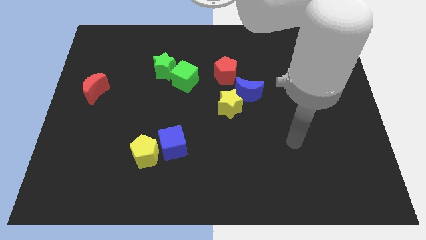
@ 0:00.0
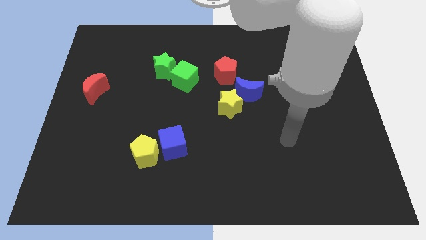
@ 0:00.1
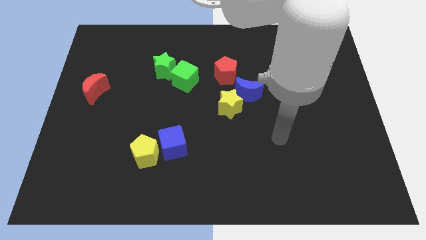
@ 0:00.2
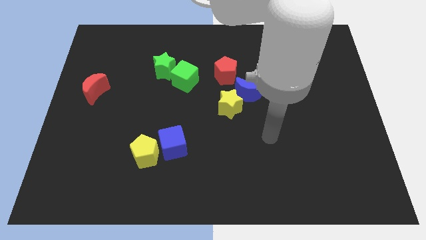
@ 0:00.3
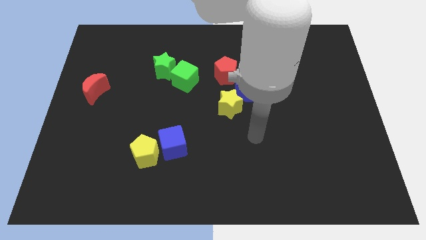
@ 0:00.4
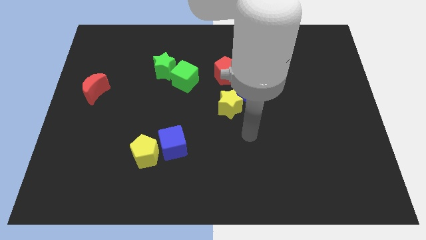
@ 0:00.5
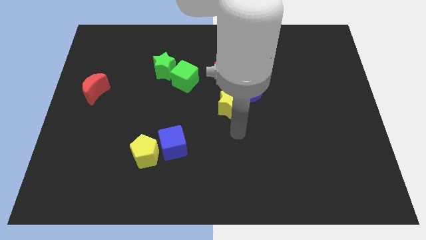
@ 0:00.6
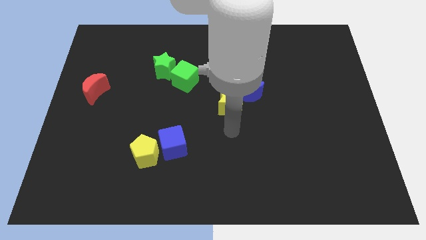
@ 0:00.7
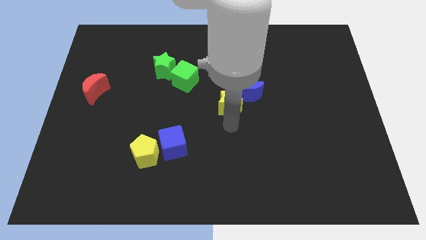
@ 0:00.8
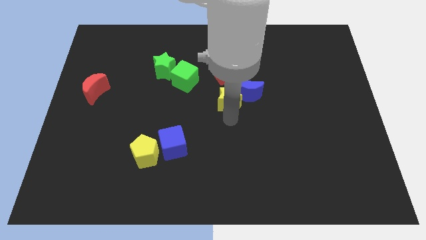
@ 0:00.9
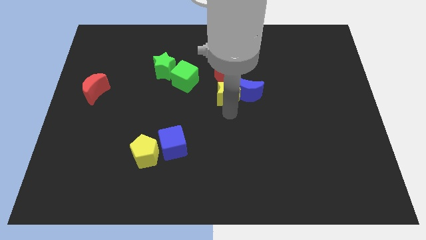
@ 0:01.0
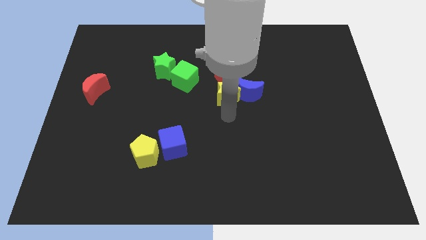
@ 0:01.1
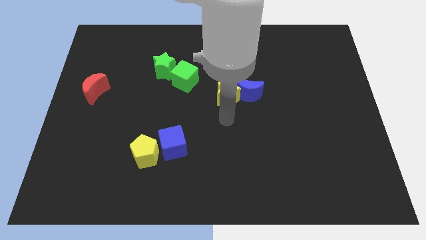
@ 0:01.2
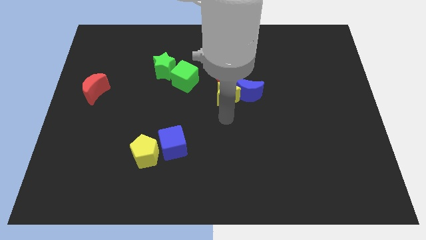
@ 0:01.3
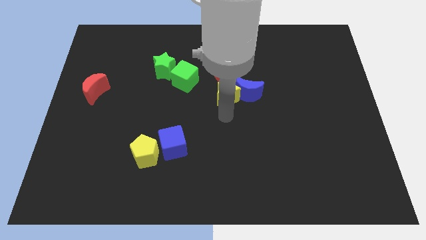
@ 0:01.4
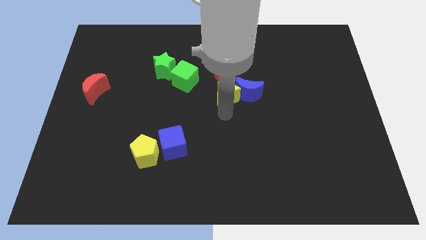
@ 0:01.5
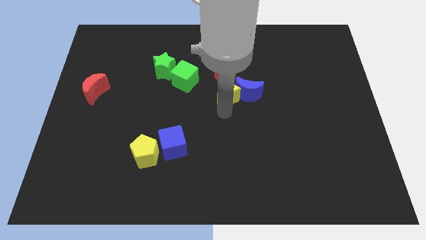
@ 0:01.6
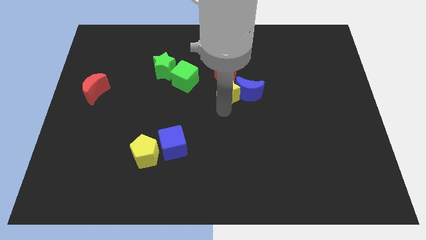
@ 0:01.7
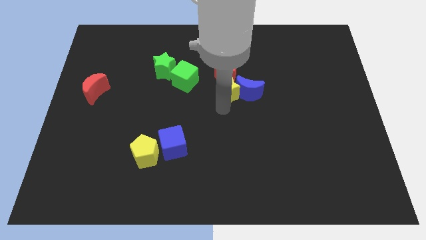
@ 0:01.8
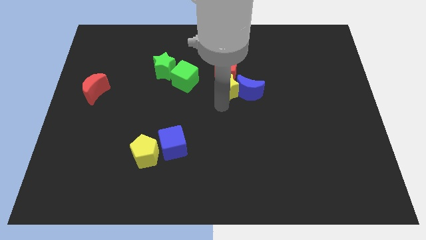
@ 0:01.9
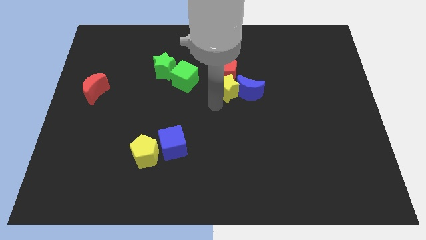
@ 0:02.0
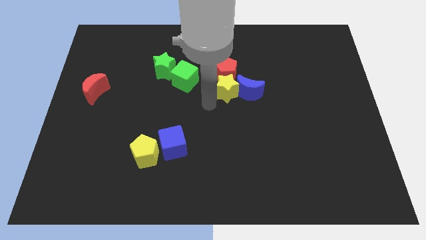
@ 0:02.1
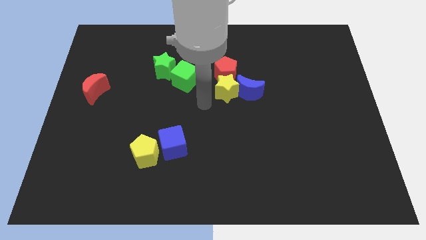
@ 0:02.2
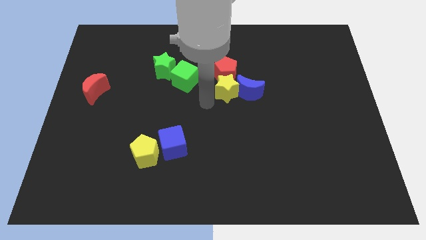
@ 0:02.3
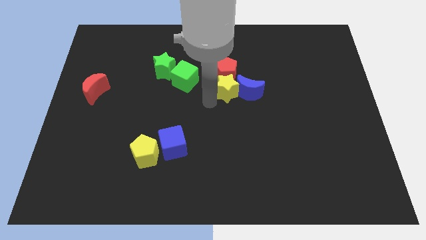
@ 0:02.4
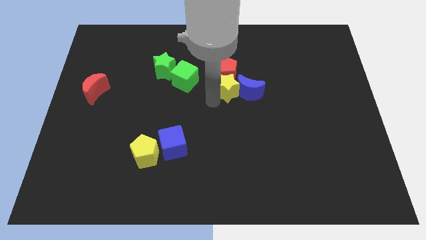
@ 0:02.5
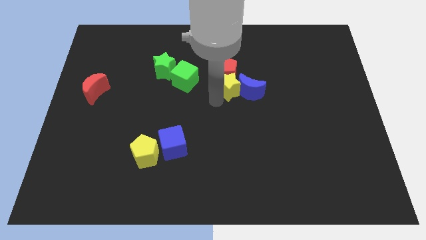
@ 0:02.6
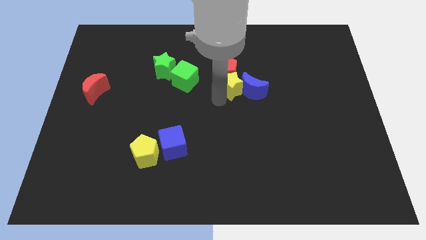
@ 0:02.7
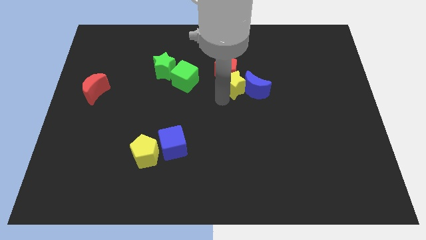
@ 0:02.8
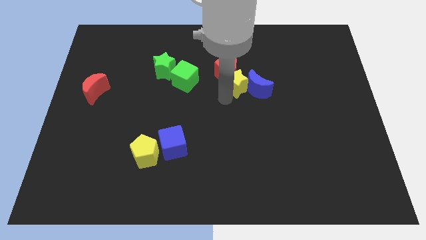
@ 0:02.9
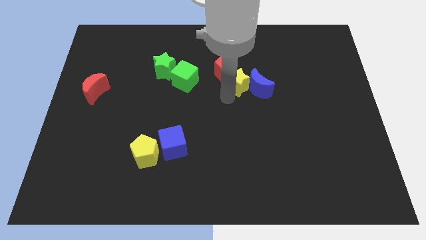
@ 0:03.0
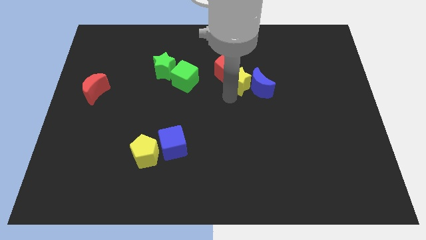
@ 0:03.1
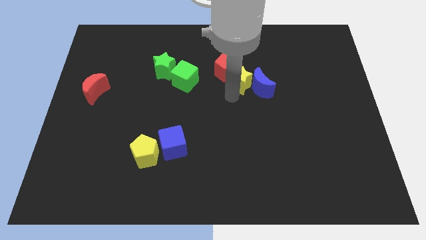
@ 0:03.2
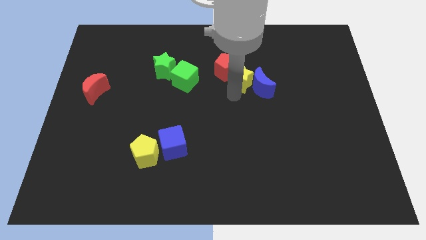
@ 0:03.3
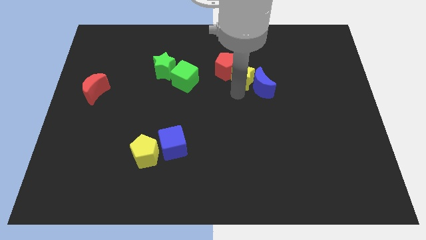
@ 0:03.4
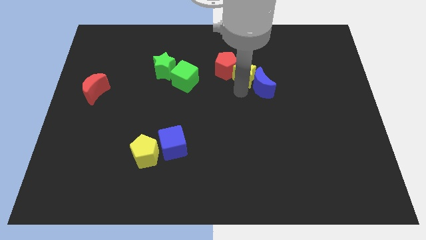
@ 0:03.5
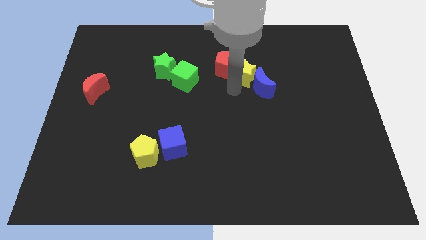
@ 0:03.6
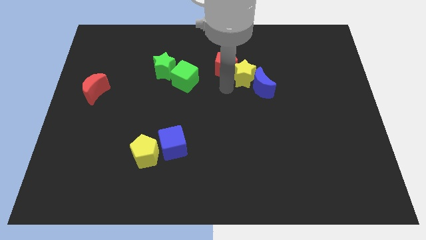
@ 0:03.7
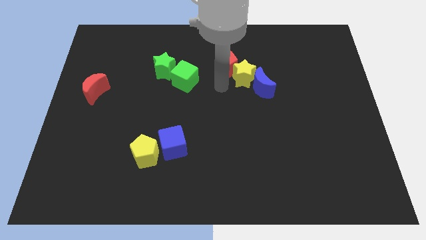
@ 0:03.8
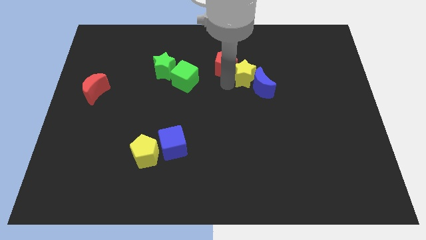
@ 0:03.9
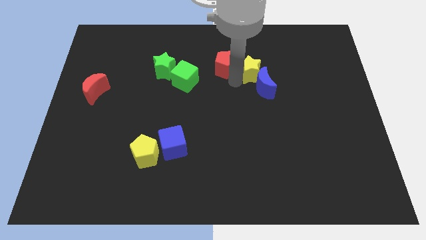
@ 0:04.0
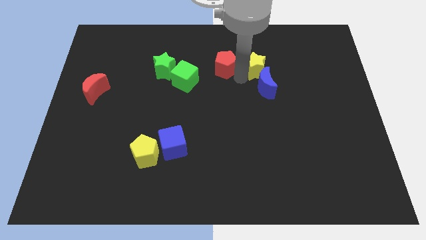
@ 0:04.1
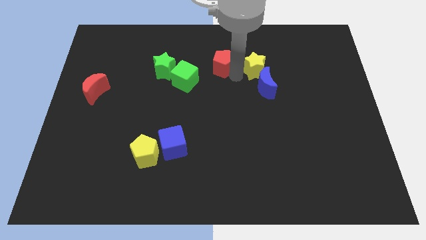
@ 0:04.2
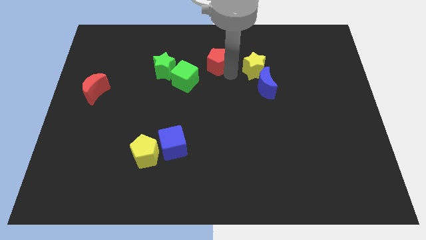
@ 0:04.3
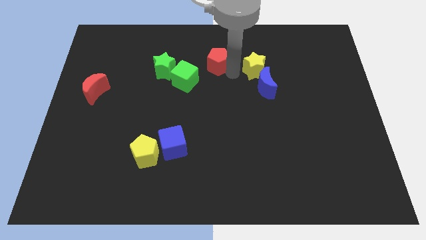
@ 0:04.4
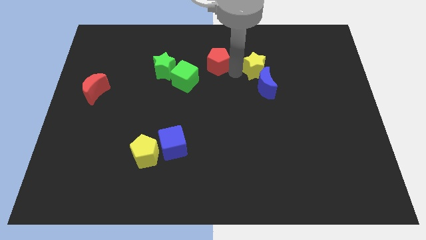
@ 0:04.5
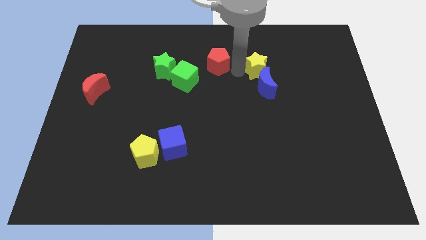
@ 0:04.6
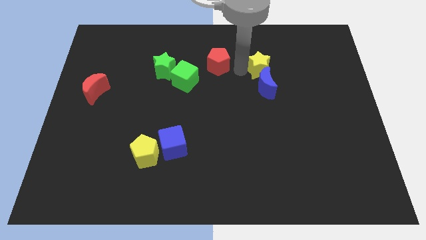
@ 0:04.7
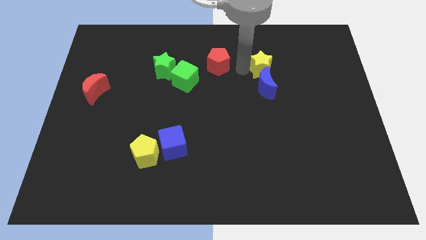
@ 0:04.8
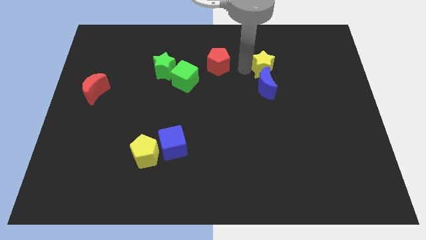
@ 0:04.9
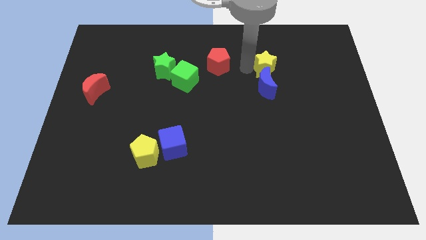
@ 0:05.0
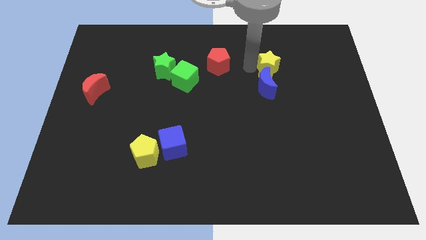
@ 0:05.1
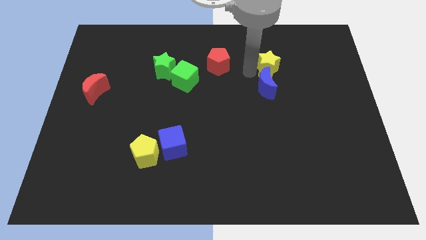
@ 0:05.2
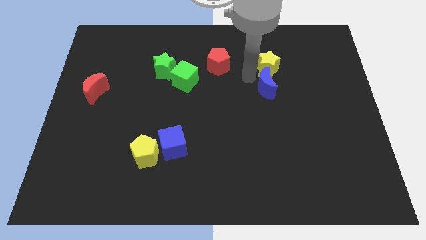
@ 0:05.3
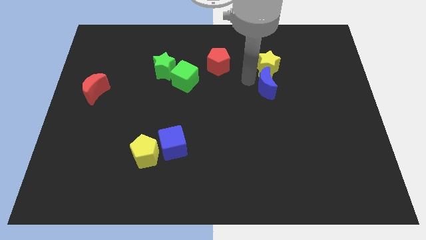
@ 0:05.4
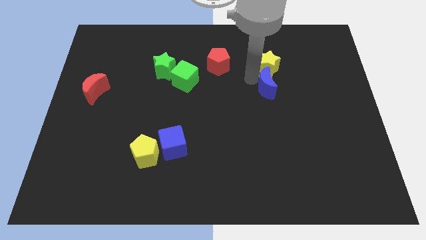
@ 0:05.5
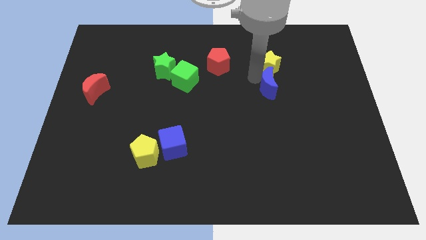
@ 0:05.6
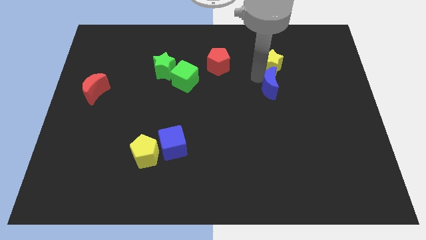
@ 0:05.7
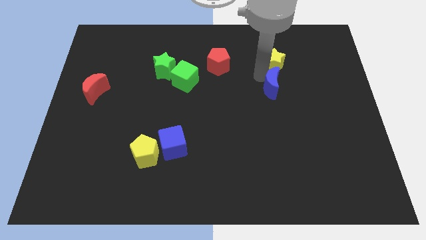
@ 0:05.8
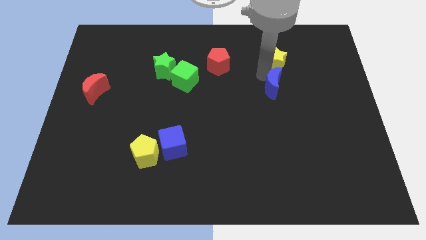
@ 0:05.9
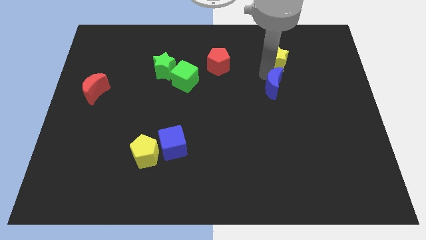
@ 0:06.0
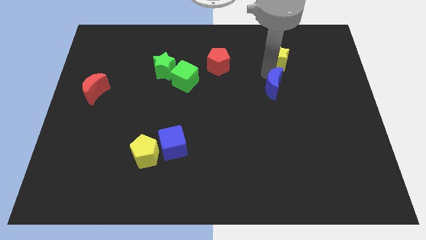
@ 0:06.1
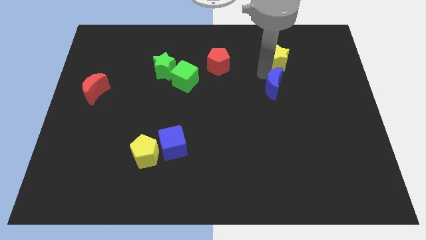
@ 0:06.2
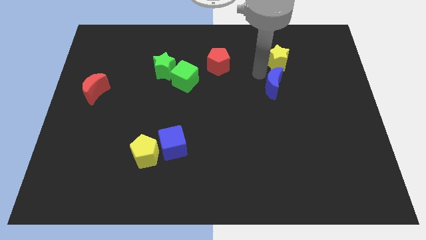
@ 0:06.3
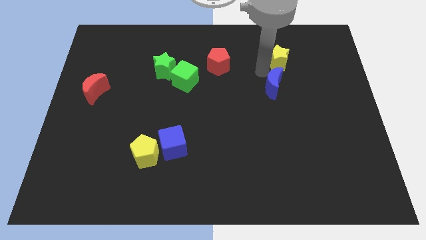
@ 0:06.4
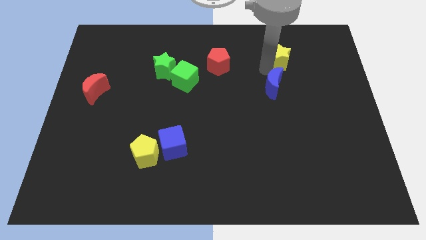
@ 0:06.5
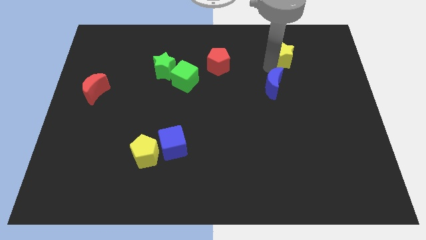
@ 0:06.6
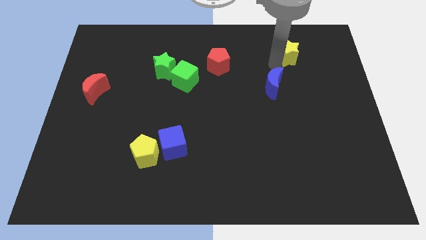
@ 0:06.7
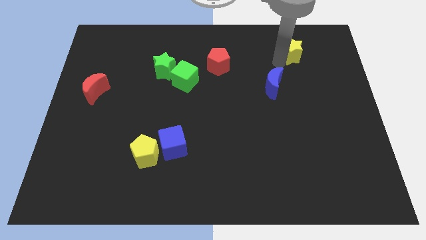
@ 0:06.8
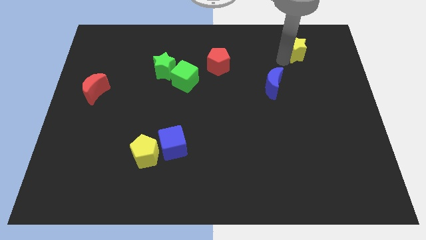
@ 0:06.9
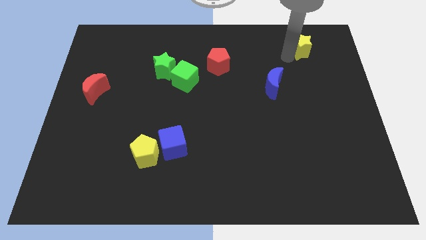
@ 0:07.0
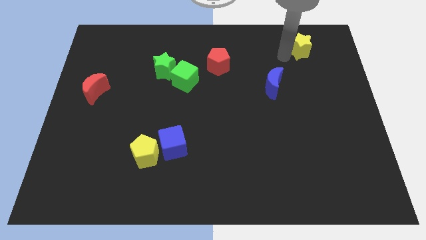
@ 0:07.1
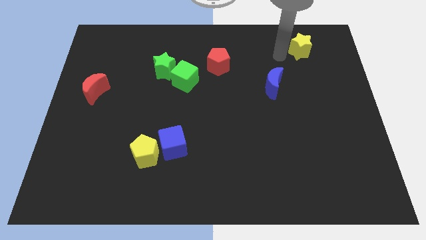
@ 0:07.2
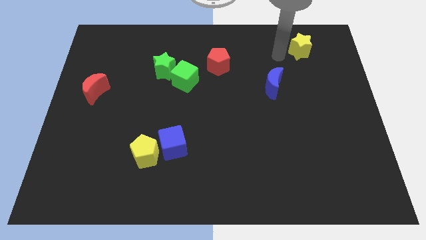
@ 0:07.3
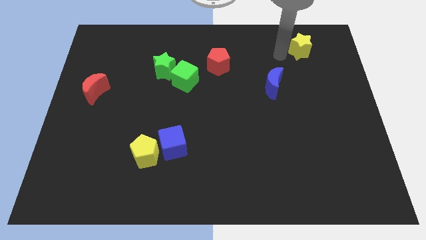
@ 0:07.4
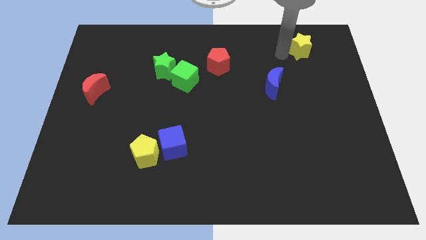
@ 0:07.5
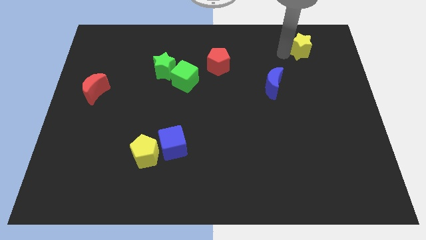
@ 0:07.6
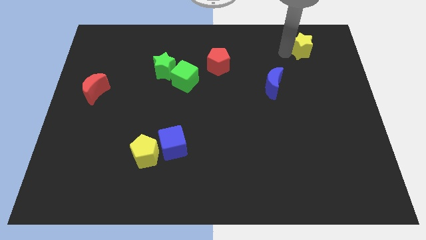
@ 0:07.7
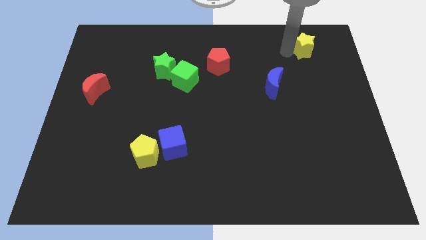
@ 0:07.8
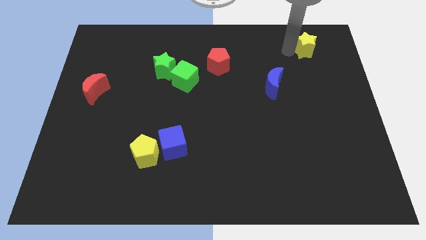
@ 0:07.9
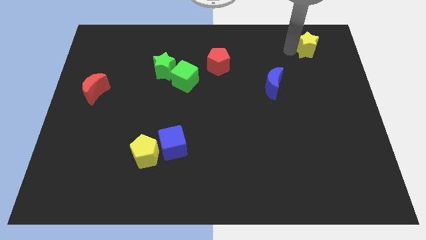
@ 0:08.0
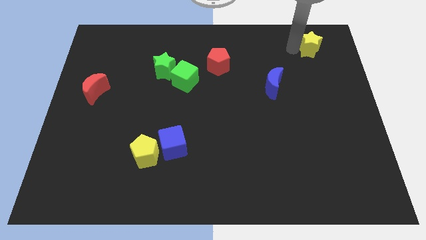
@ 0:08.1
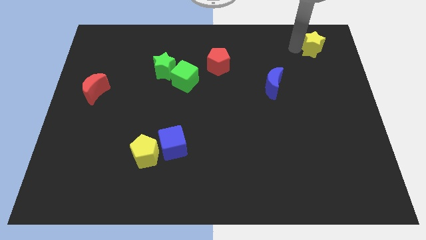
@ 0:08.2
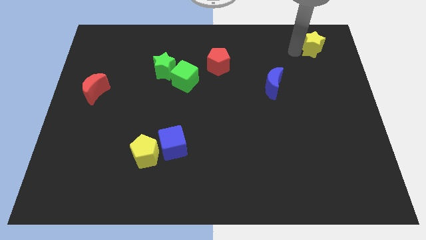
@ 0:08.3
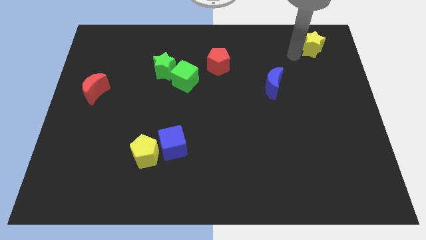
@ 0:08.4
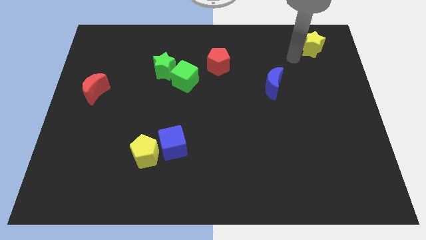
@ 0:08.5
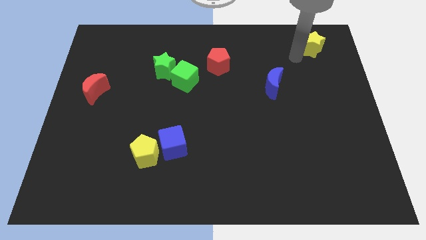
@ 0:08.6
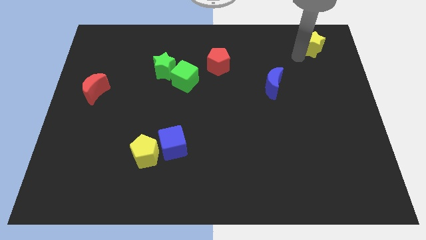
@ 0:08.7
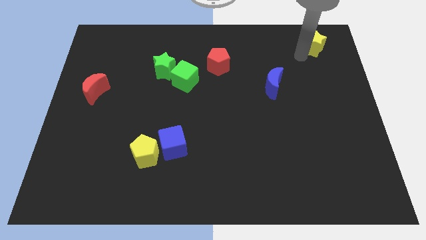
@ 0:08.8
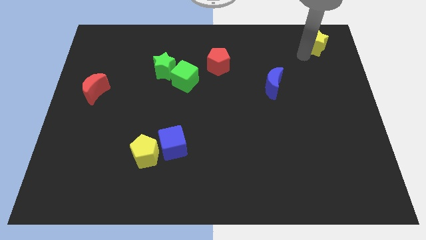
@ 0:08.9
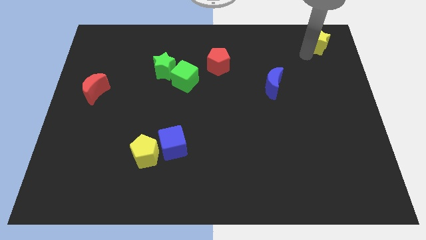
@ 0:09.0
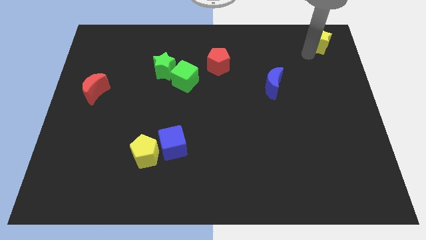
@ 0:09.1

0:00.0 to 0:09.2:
move the yellow star to the top right corner
